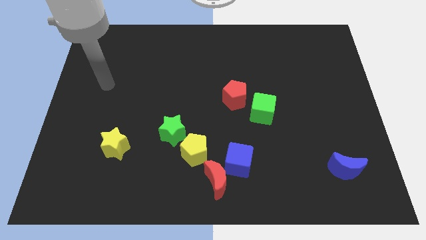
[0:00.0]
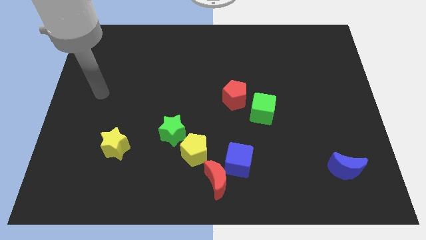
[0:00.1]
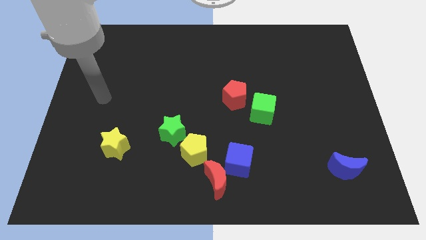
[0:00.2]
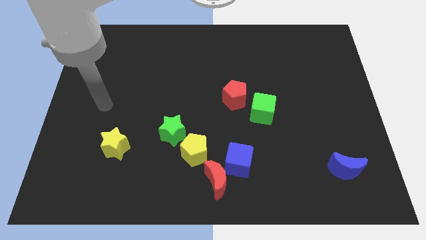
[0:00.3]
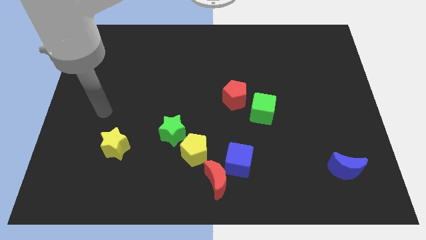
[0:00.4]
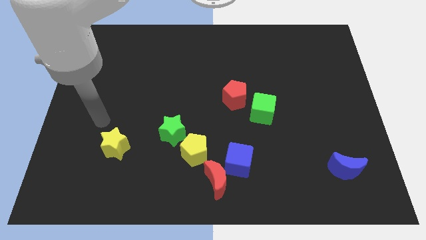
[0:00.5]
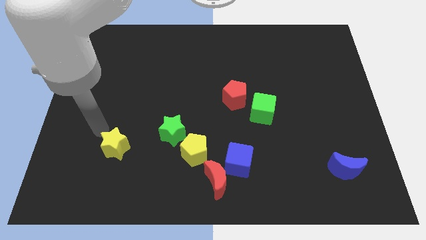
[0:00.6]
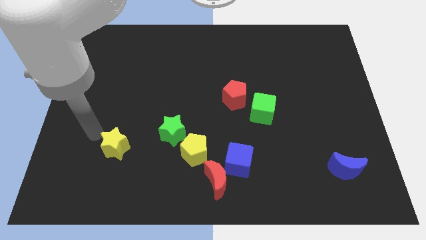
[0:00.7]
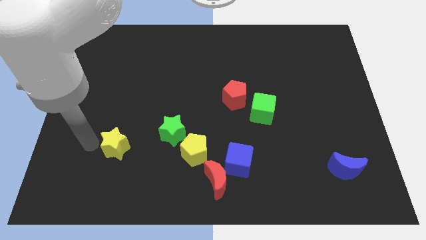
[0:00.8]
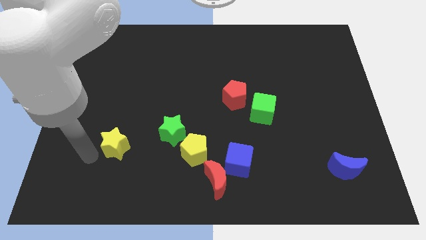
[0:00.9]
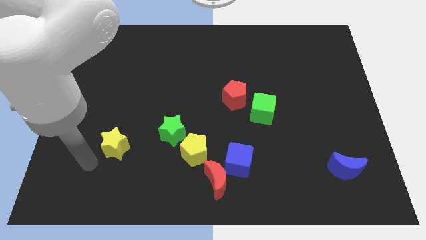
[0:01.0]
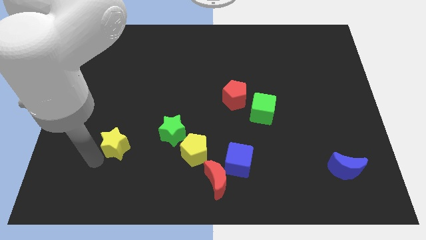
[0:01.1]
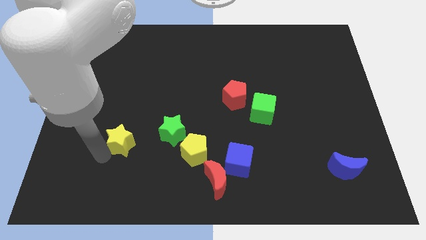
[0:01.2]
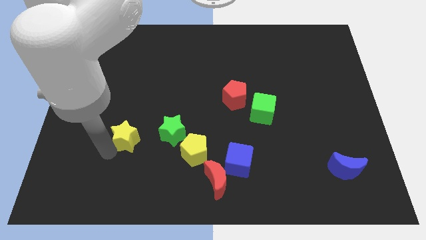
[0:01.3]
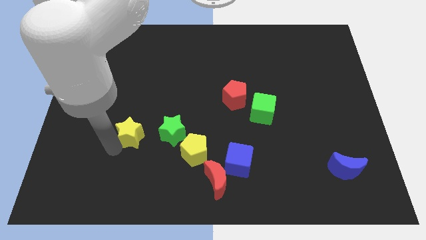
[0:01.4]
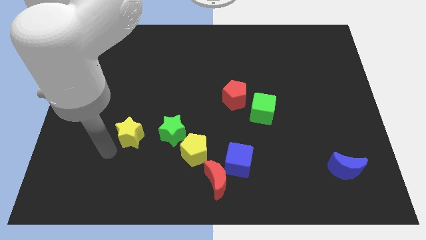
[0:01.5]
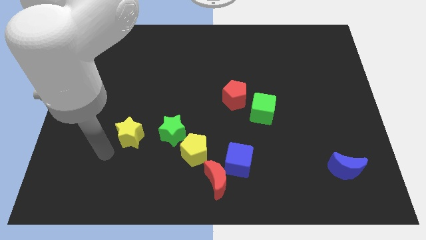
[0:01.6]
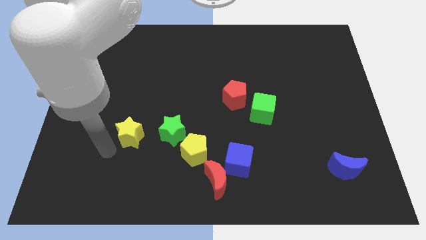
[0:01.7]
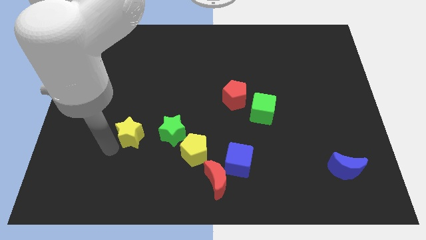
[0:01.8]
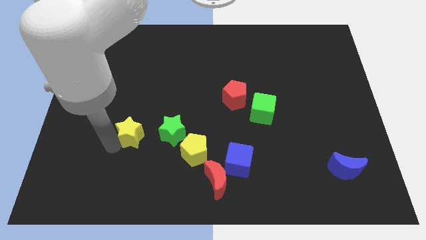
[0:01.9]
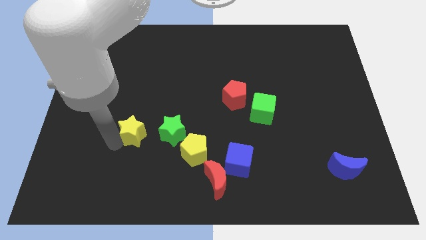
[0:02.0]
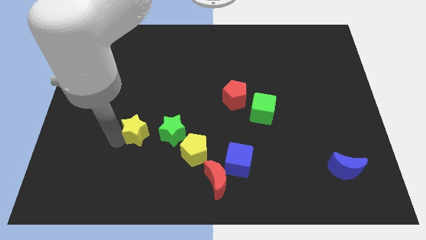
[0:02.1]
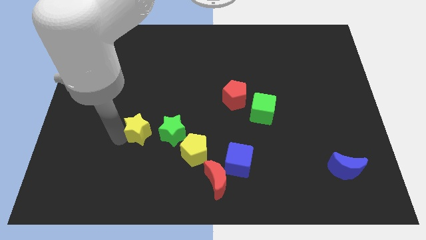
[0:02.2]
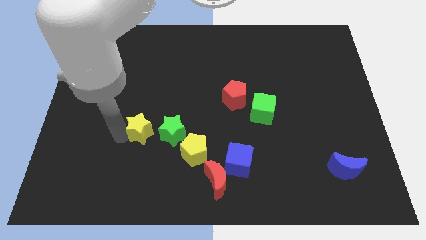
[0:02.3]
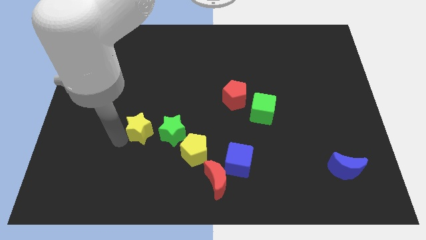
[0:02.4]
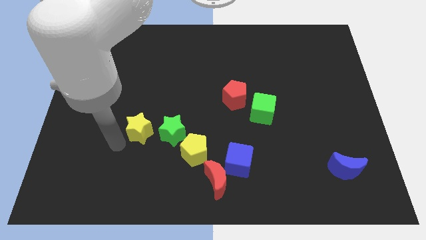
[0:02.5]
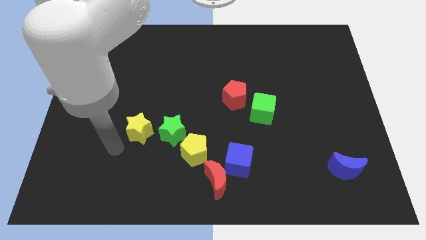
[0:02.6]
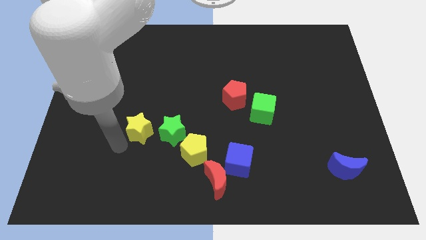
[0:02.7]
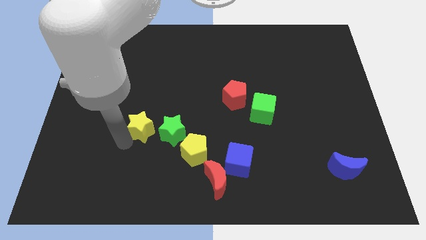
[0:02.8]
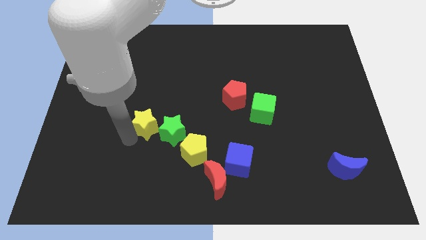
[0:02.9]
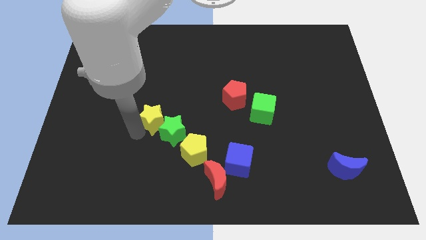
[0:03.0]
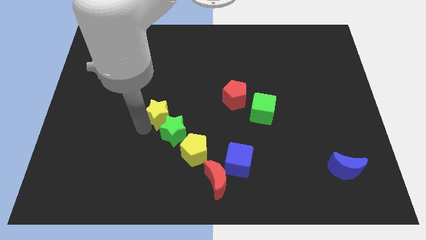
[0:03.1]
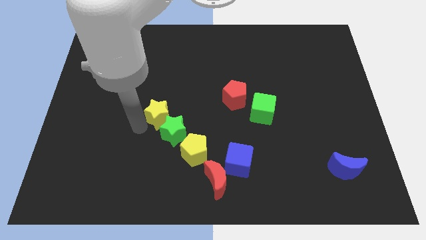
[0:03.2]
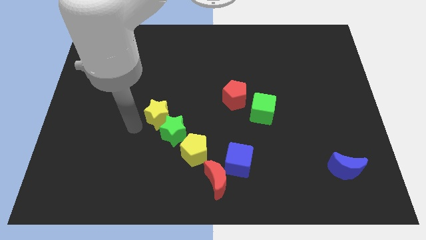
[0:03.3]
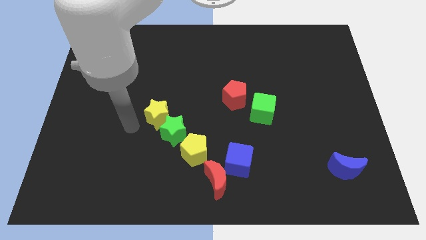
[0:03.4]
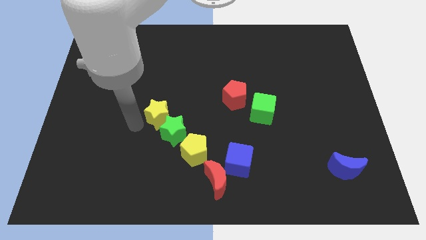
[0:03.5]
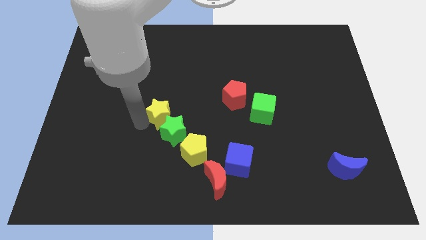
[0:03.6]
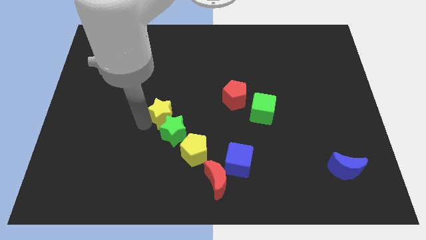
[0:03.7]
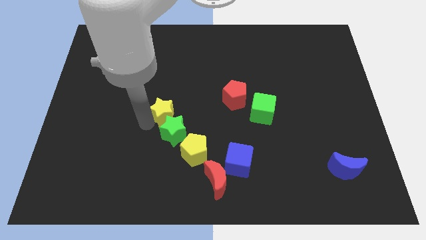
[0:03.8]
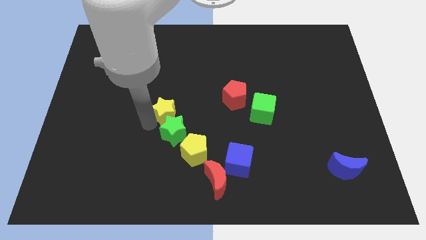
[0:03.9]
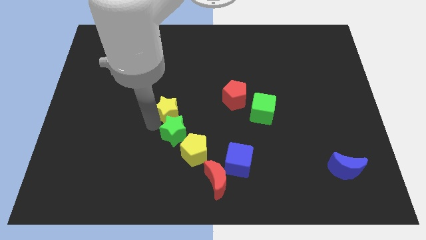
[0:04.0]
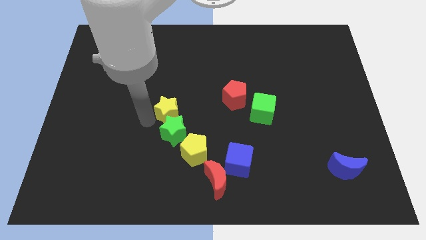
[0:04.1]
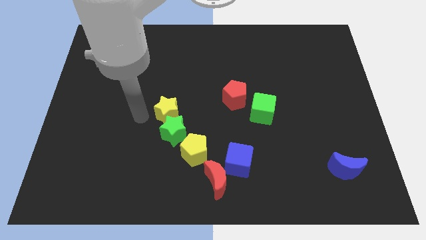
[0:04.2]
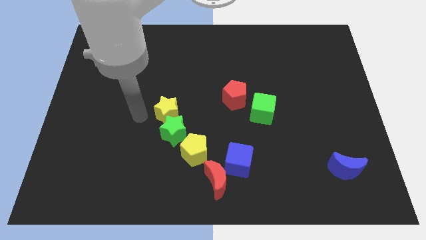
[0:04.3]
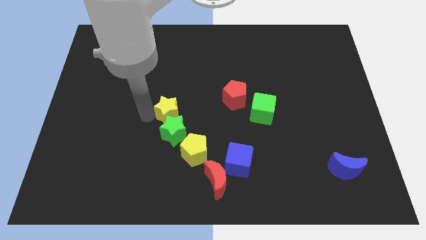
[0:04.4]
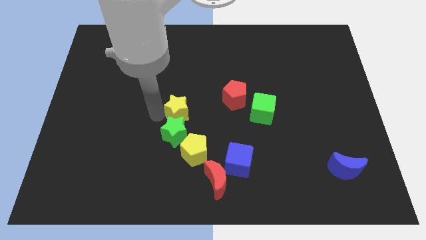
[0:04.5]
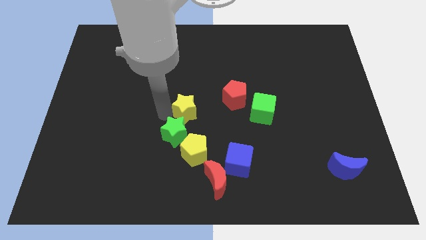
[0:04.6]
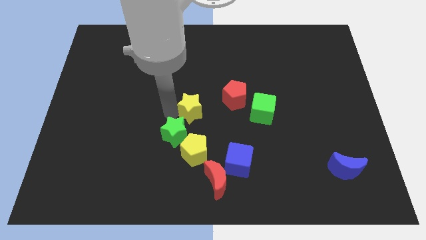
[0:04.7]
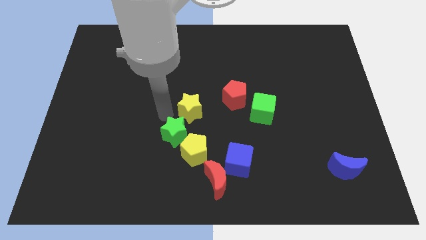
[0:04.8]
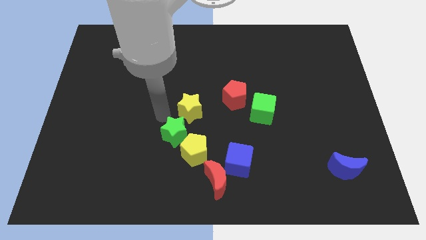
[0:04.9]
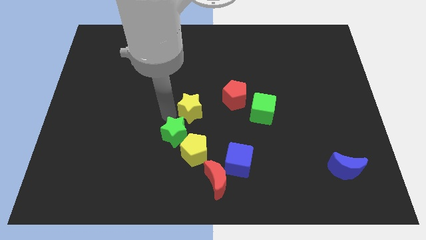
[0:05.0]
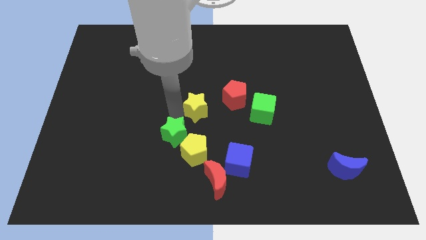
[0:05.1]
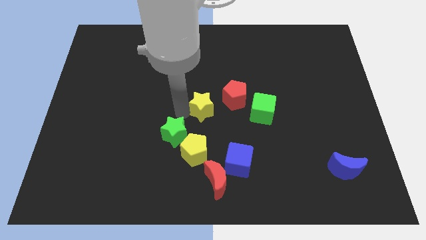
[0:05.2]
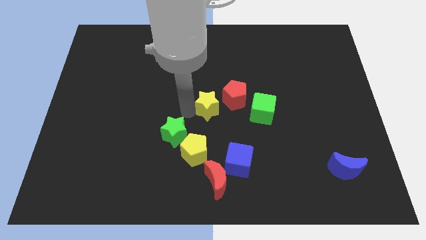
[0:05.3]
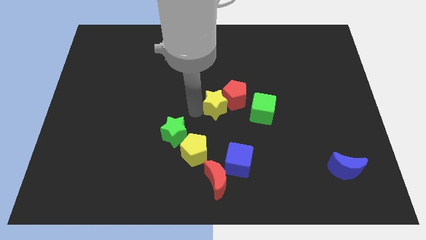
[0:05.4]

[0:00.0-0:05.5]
push the yellow star close to the red pentagon

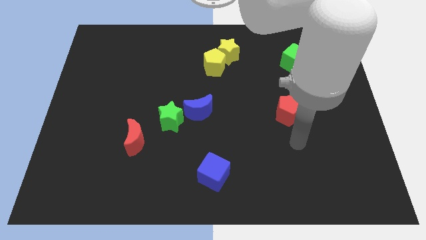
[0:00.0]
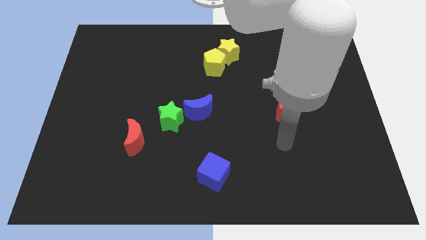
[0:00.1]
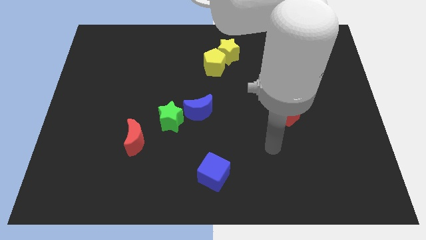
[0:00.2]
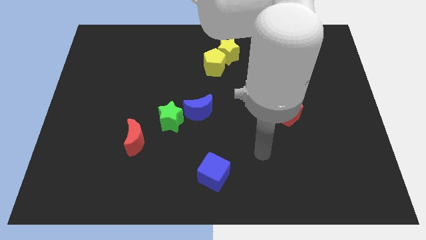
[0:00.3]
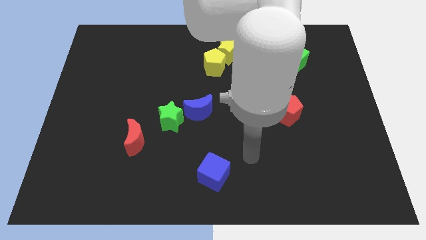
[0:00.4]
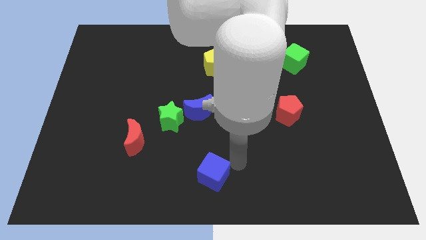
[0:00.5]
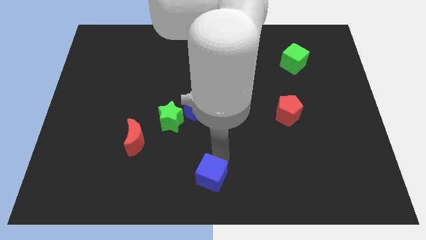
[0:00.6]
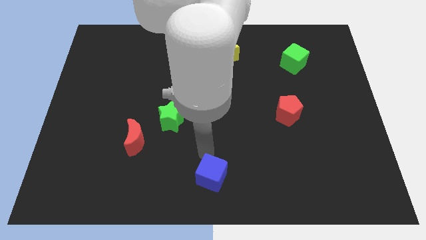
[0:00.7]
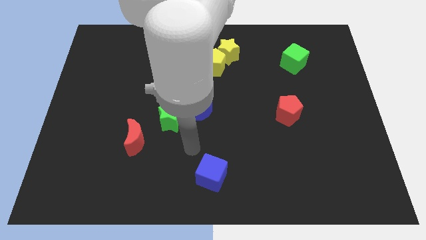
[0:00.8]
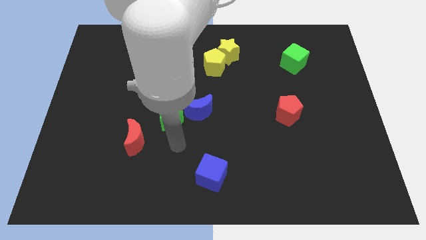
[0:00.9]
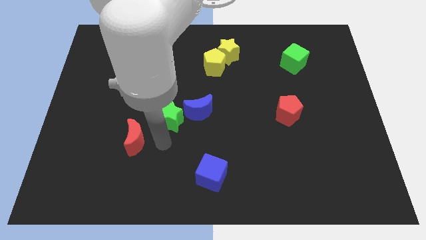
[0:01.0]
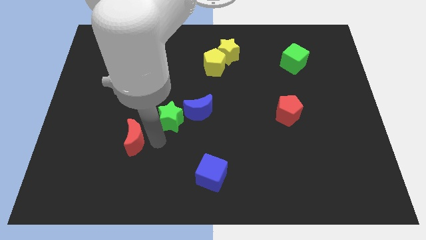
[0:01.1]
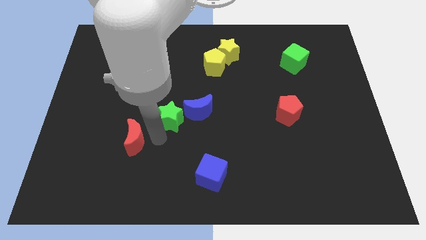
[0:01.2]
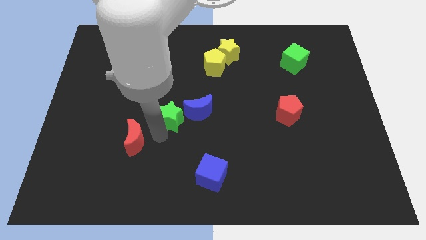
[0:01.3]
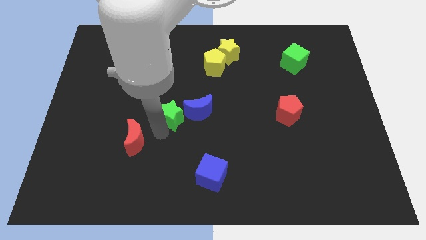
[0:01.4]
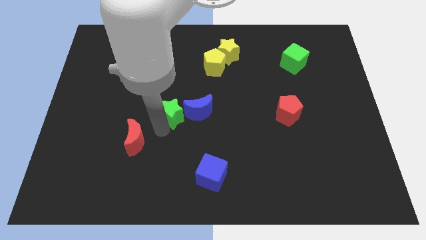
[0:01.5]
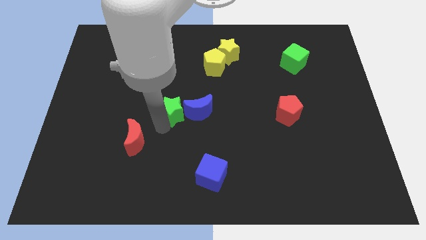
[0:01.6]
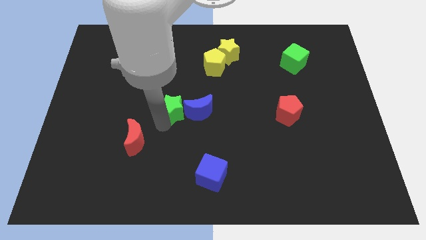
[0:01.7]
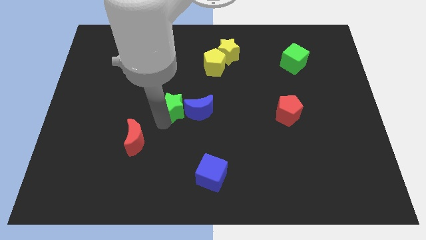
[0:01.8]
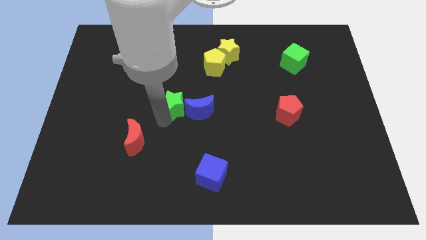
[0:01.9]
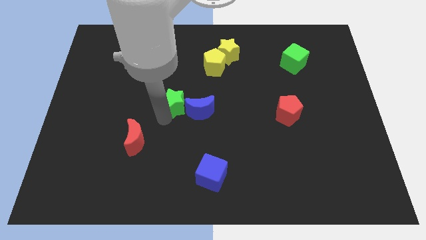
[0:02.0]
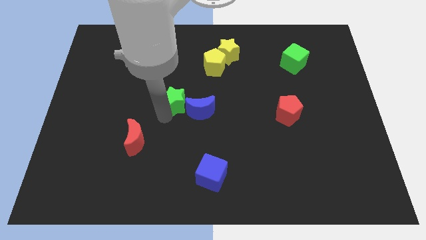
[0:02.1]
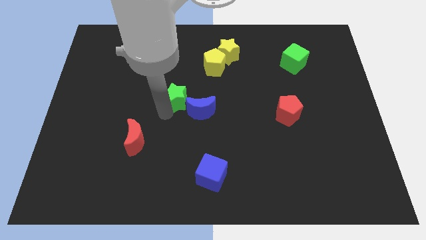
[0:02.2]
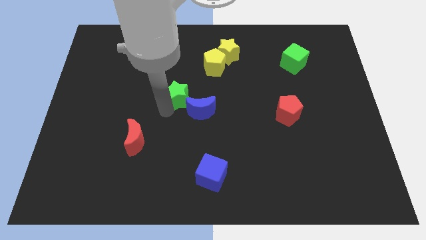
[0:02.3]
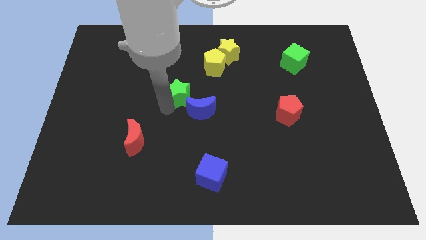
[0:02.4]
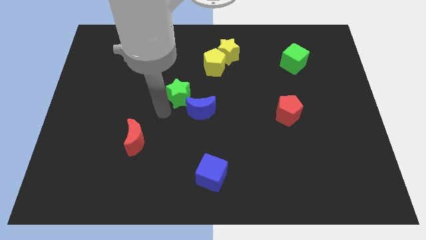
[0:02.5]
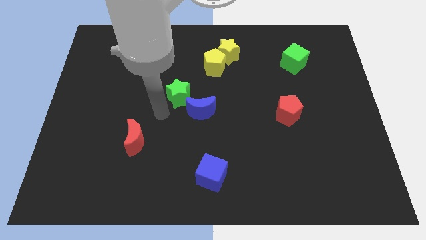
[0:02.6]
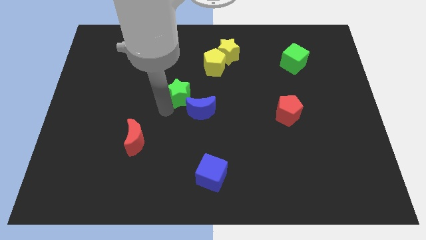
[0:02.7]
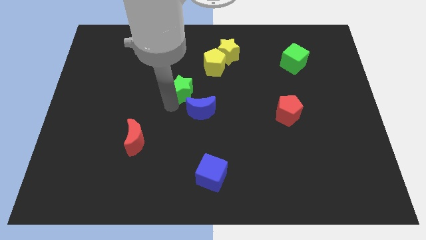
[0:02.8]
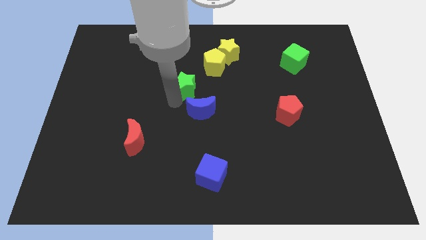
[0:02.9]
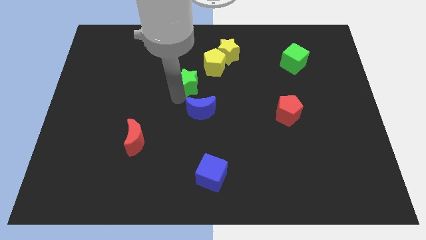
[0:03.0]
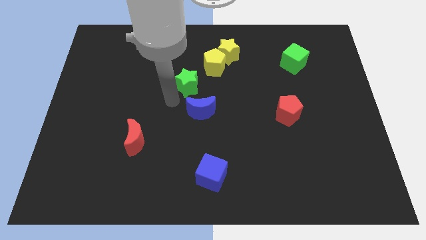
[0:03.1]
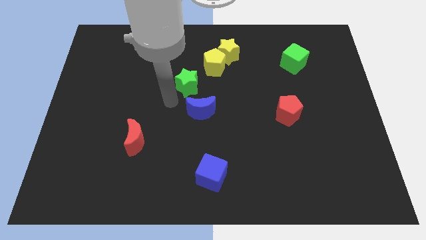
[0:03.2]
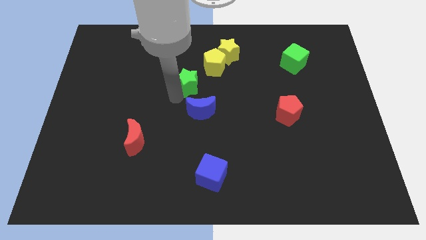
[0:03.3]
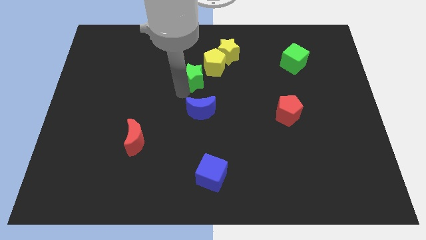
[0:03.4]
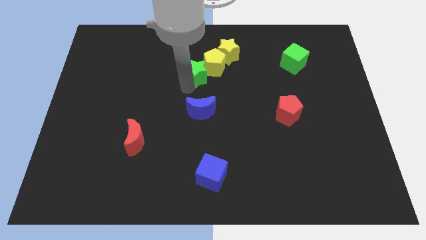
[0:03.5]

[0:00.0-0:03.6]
push the green star to the yellow pentagon
